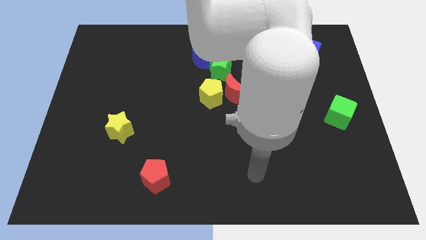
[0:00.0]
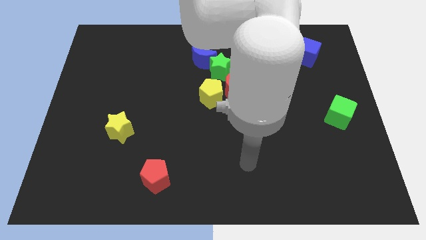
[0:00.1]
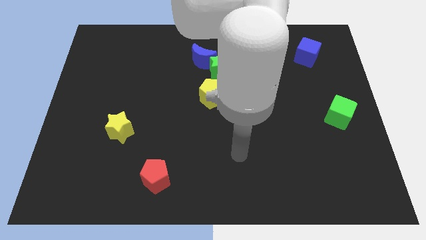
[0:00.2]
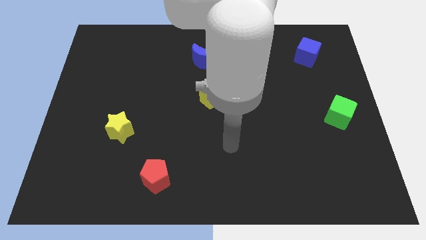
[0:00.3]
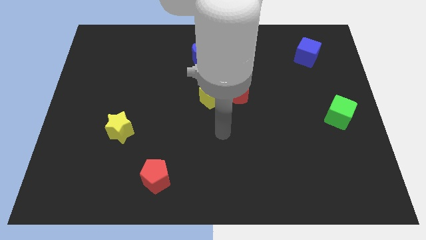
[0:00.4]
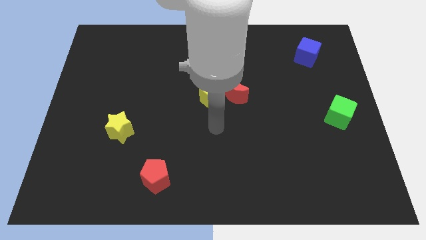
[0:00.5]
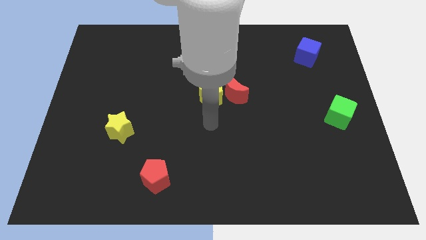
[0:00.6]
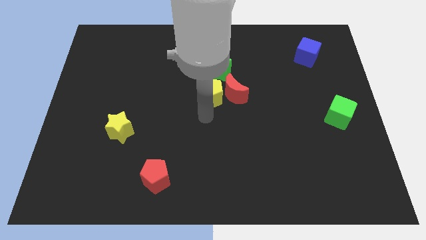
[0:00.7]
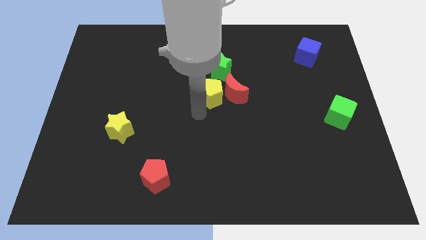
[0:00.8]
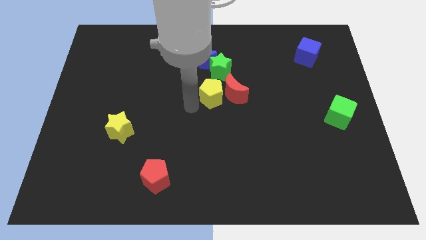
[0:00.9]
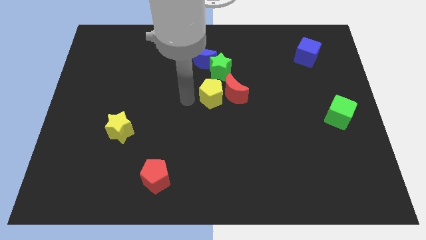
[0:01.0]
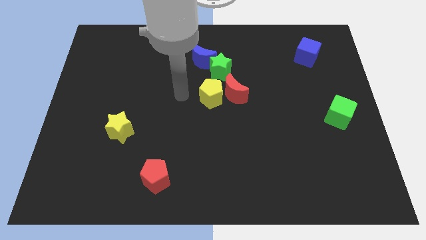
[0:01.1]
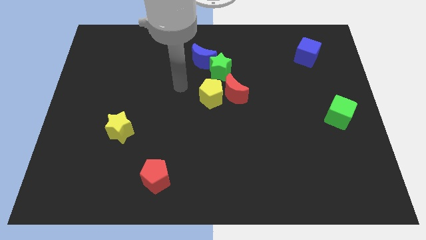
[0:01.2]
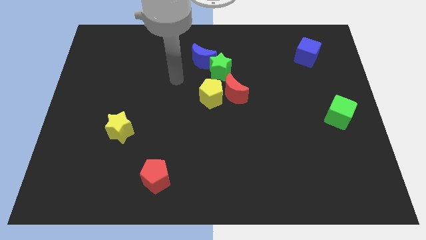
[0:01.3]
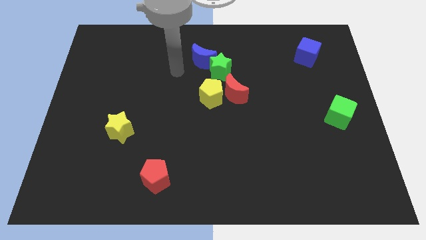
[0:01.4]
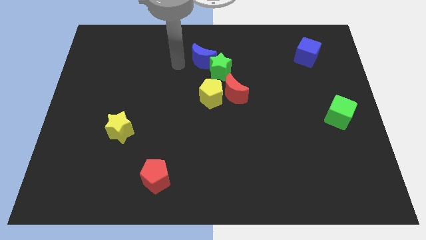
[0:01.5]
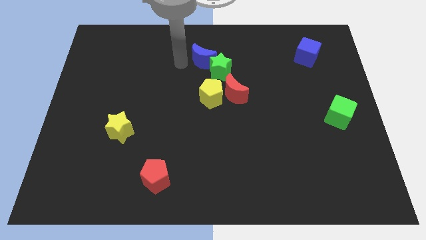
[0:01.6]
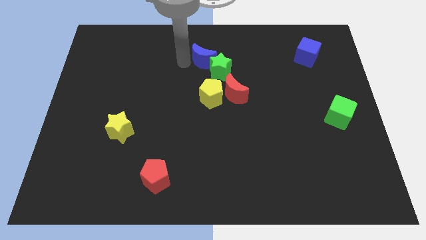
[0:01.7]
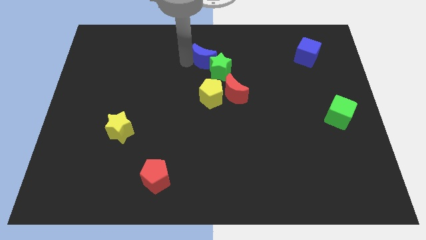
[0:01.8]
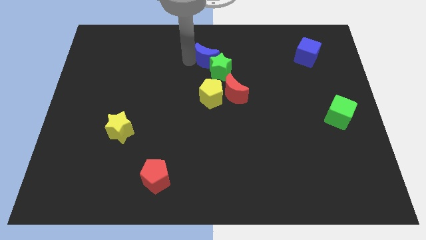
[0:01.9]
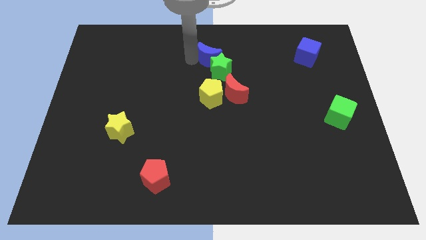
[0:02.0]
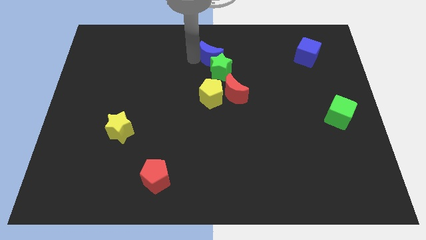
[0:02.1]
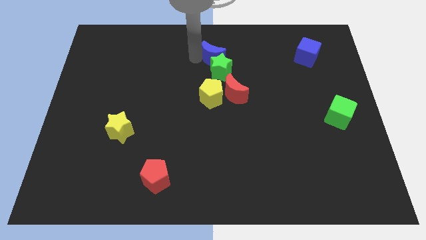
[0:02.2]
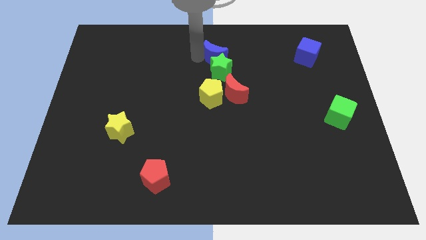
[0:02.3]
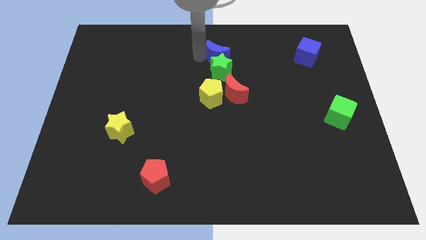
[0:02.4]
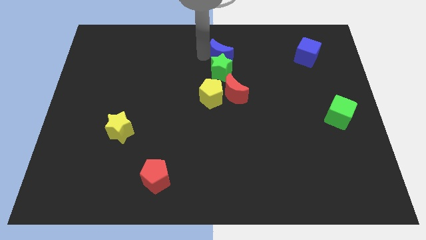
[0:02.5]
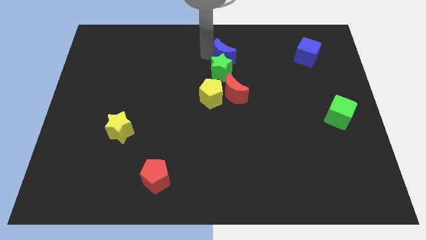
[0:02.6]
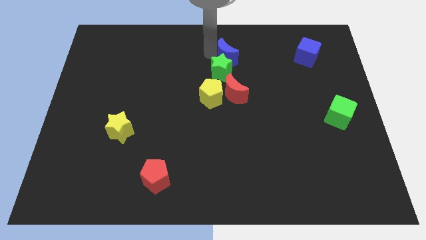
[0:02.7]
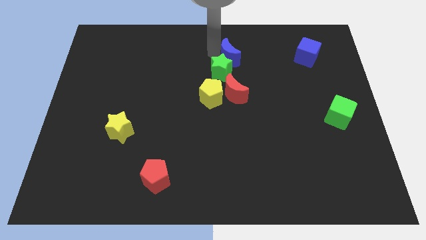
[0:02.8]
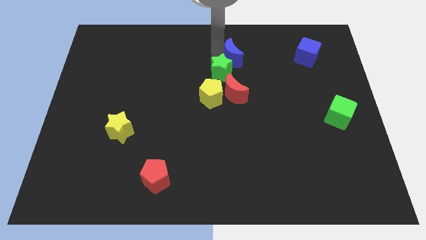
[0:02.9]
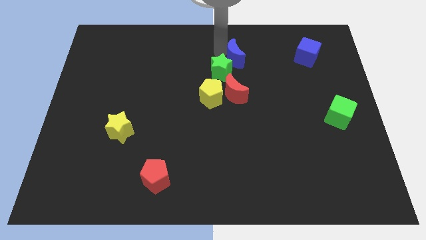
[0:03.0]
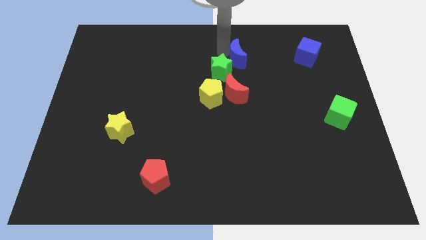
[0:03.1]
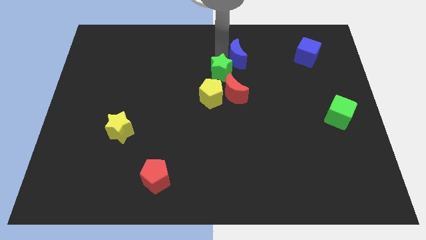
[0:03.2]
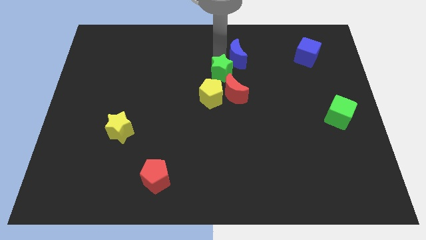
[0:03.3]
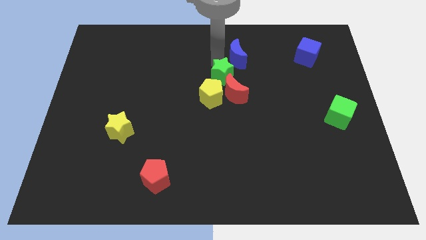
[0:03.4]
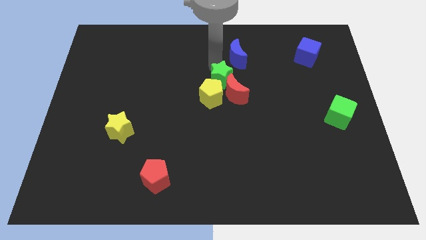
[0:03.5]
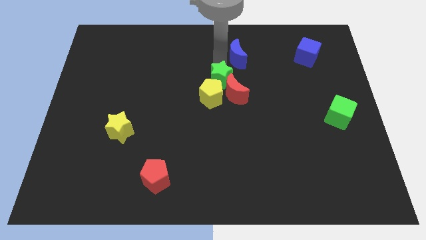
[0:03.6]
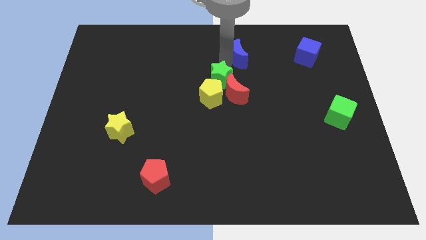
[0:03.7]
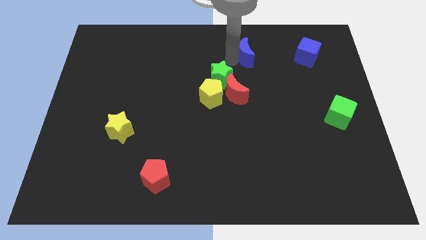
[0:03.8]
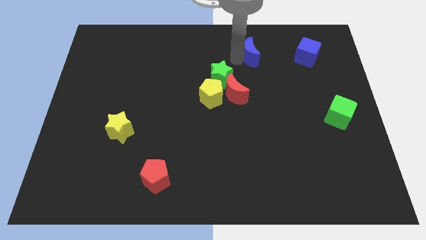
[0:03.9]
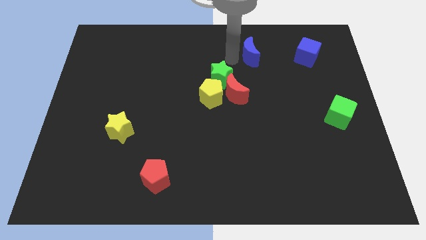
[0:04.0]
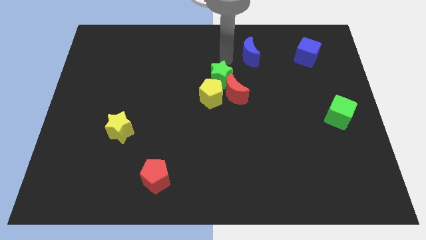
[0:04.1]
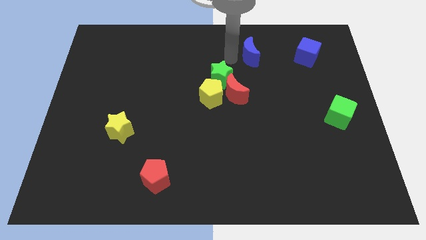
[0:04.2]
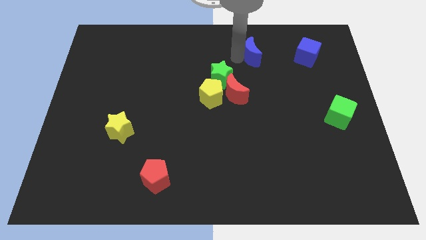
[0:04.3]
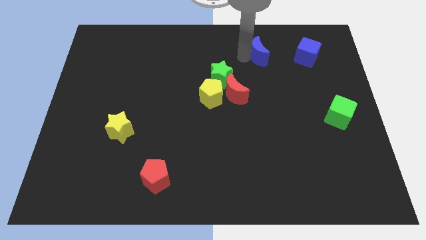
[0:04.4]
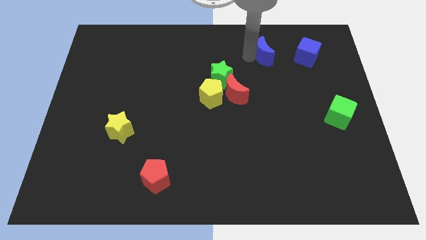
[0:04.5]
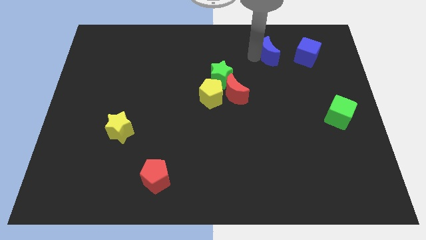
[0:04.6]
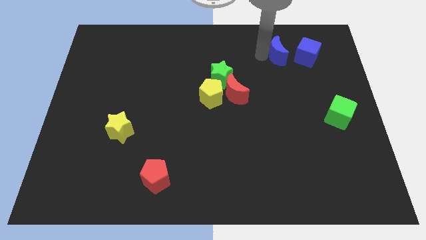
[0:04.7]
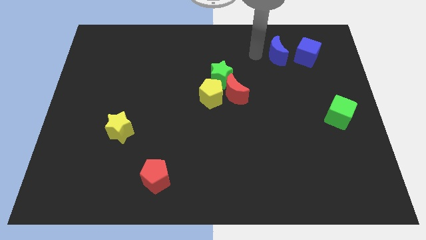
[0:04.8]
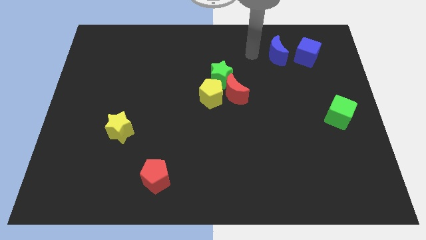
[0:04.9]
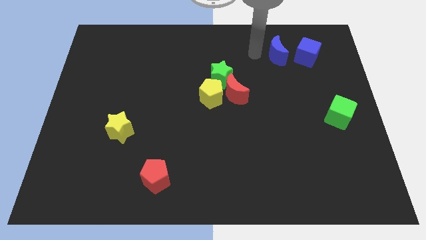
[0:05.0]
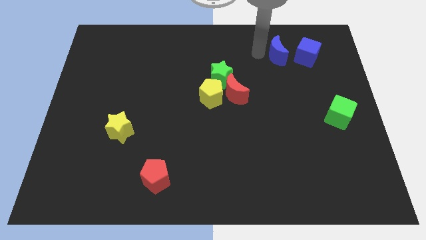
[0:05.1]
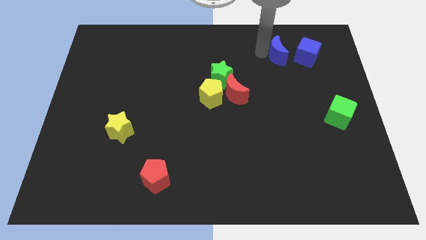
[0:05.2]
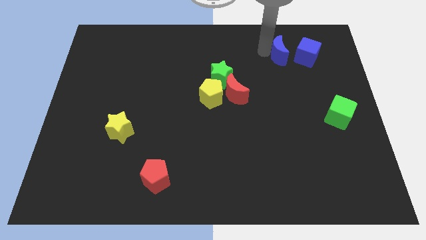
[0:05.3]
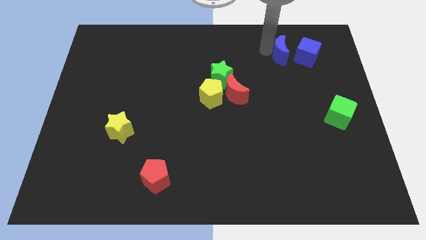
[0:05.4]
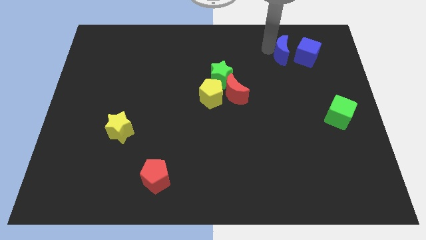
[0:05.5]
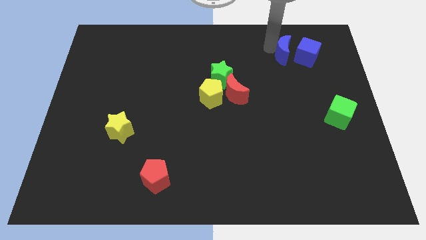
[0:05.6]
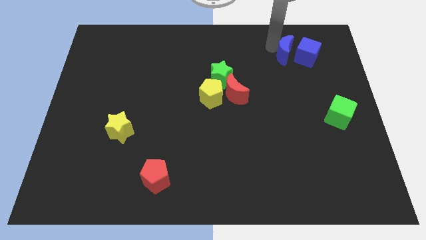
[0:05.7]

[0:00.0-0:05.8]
push the blue moon next to the blue cube
